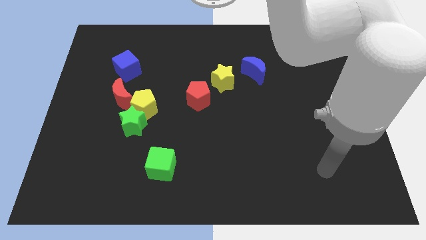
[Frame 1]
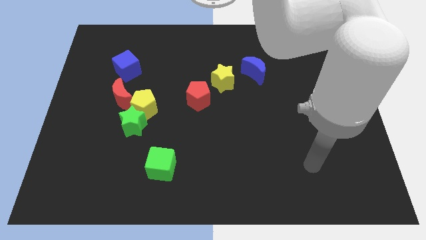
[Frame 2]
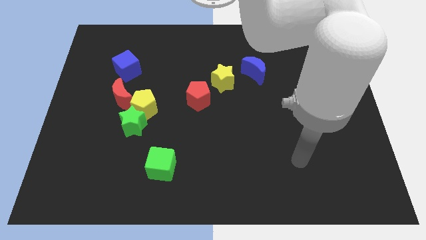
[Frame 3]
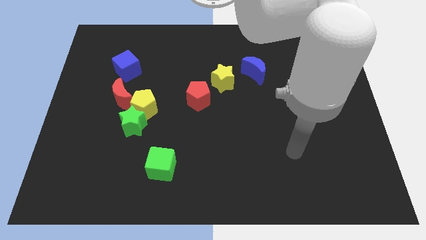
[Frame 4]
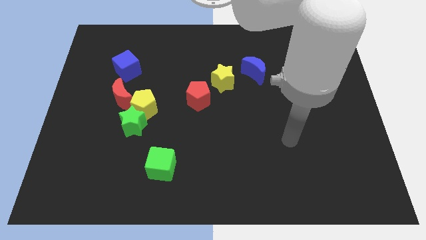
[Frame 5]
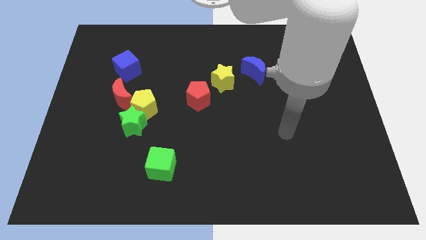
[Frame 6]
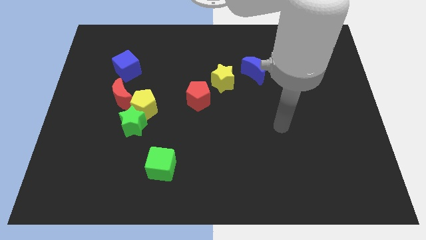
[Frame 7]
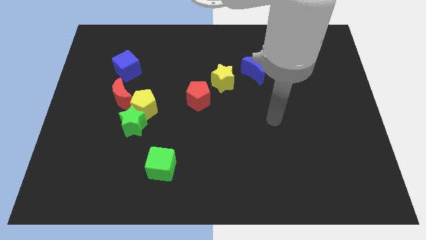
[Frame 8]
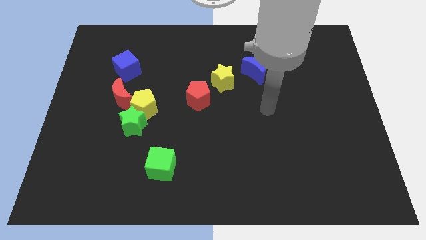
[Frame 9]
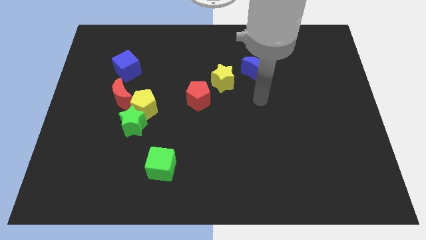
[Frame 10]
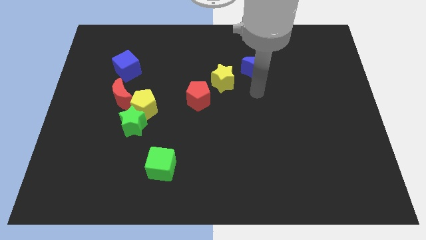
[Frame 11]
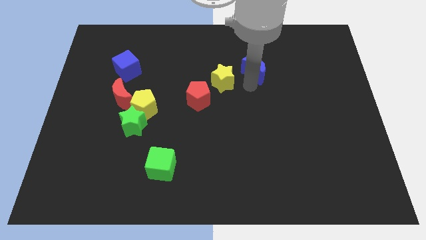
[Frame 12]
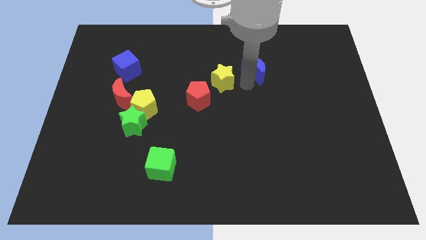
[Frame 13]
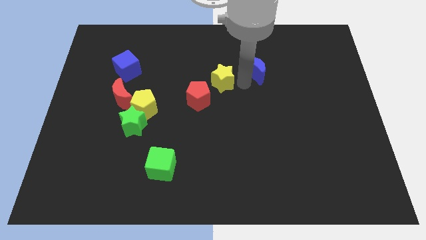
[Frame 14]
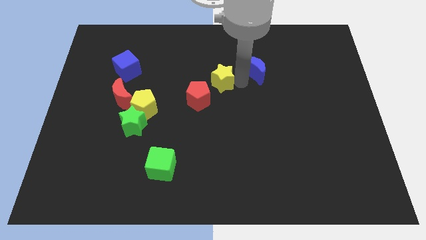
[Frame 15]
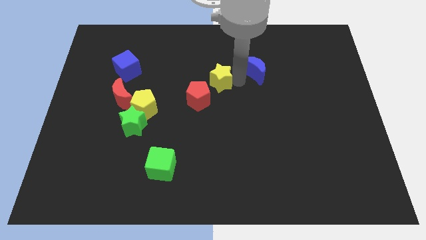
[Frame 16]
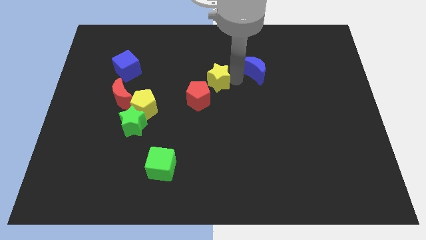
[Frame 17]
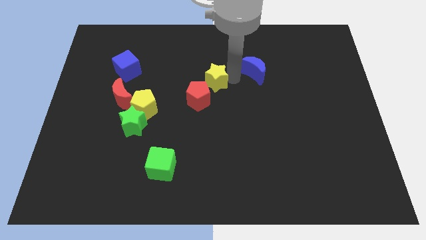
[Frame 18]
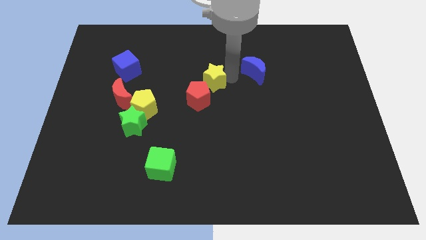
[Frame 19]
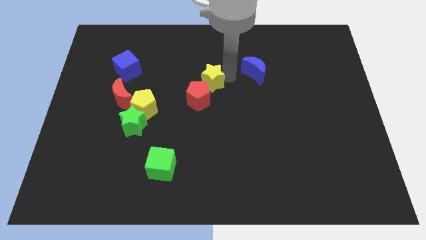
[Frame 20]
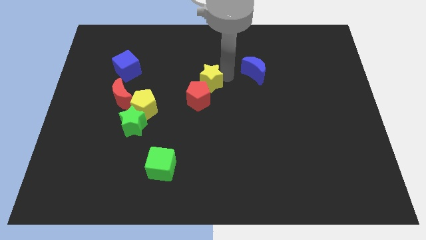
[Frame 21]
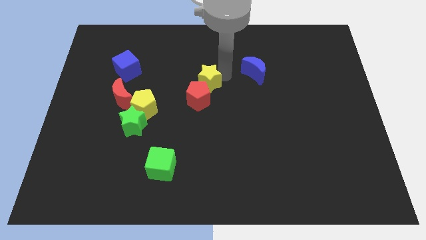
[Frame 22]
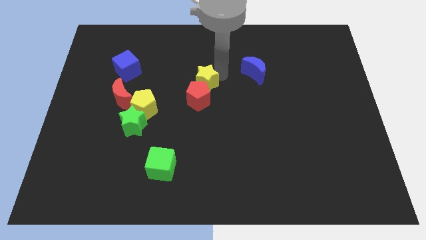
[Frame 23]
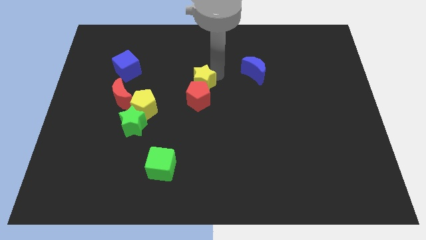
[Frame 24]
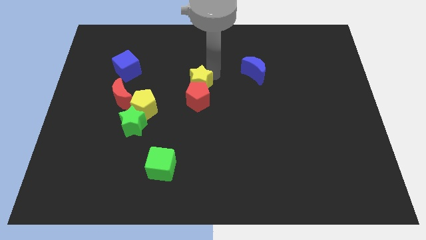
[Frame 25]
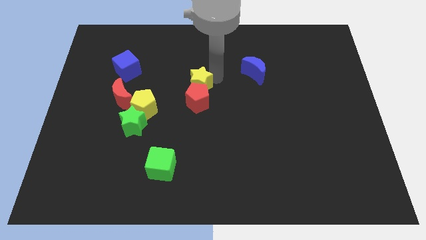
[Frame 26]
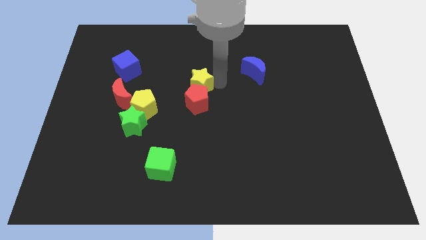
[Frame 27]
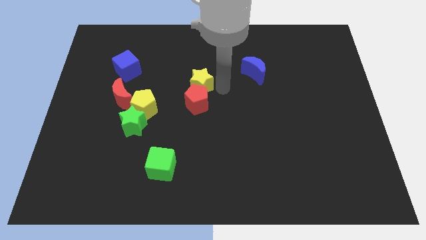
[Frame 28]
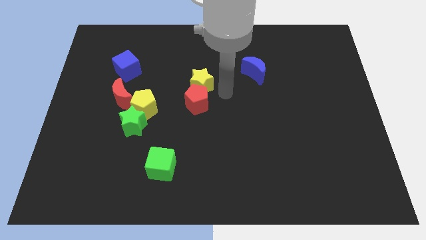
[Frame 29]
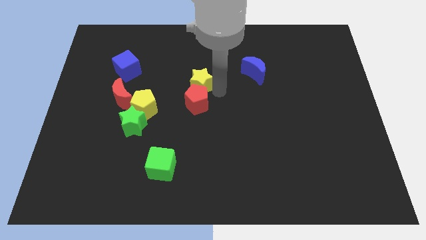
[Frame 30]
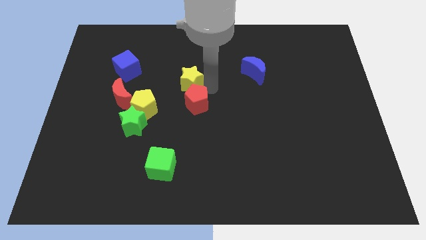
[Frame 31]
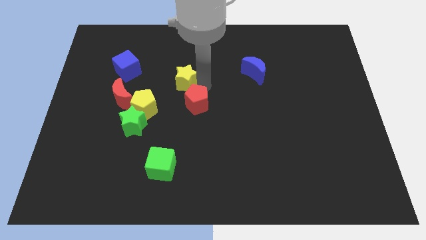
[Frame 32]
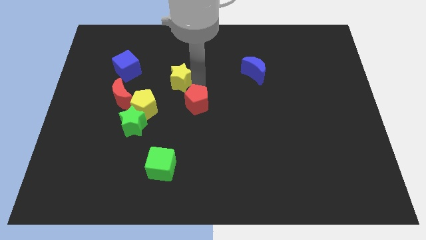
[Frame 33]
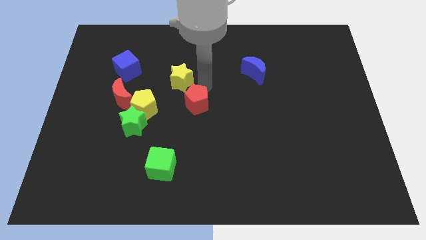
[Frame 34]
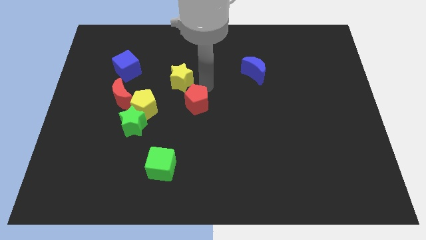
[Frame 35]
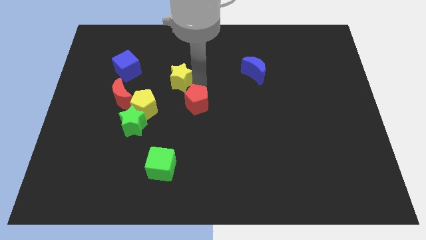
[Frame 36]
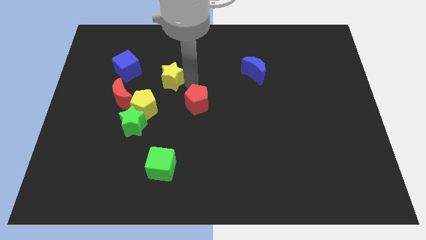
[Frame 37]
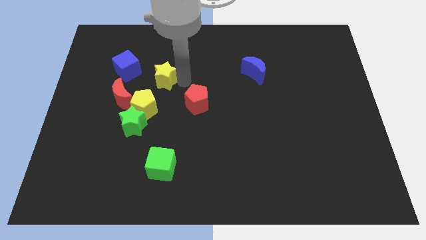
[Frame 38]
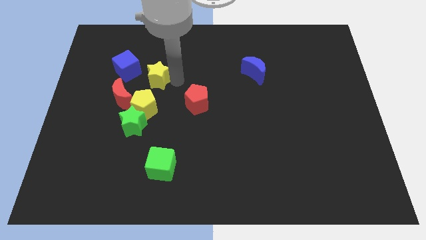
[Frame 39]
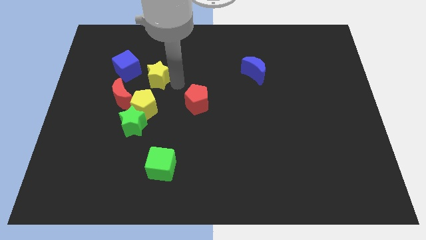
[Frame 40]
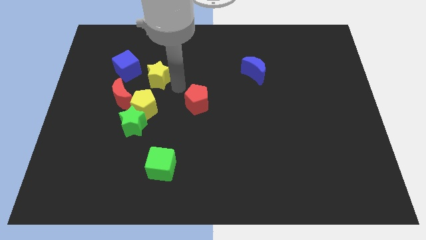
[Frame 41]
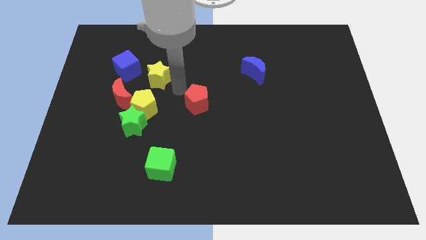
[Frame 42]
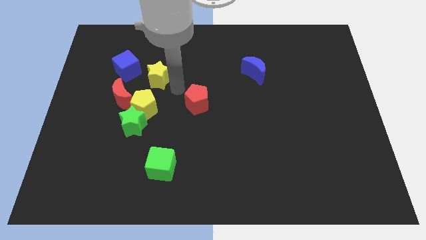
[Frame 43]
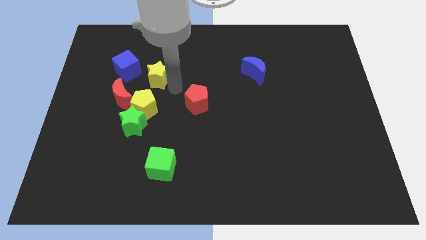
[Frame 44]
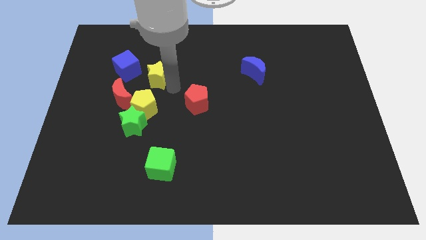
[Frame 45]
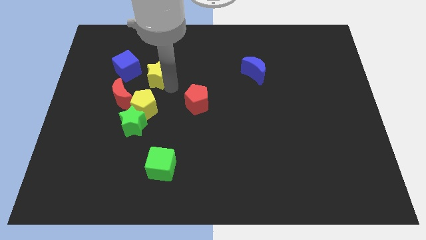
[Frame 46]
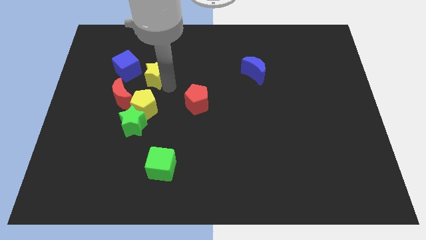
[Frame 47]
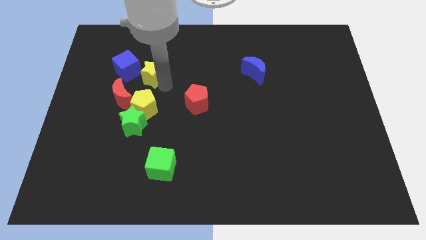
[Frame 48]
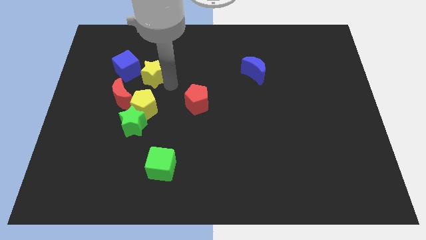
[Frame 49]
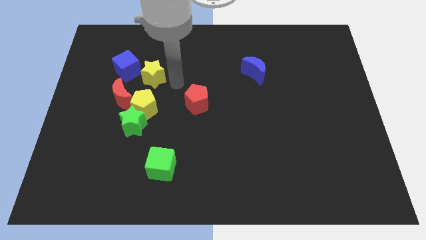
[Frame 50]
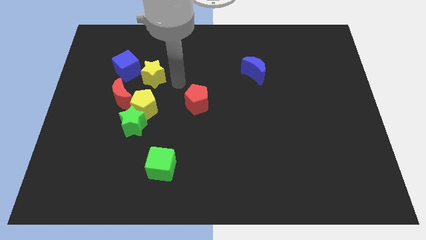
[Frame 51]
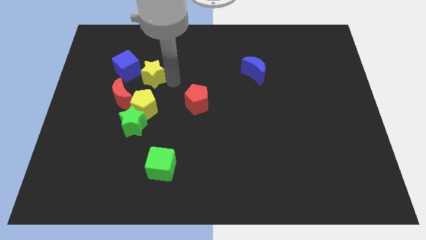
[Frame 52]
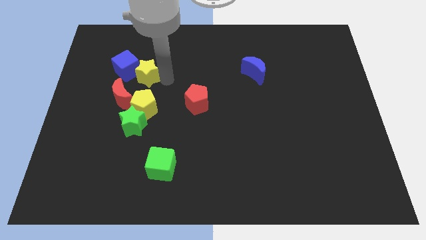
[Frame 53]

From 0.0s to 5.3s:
push the yellow star to the blue cube

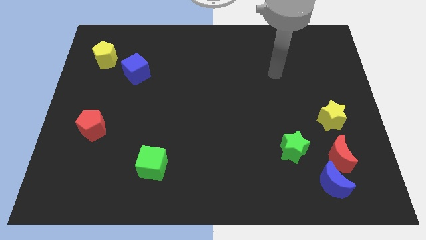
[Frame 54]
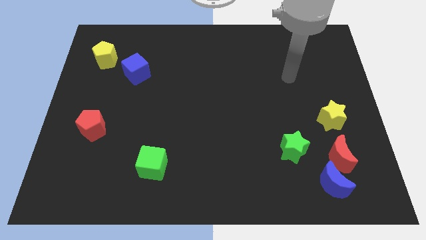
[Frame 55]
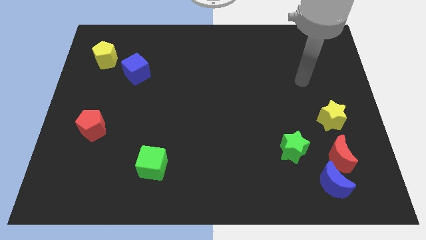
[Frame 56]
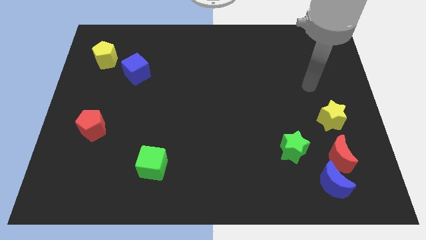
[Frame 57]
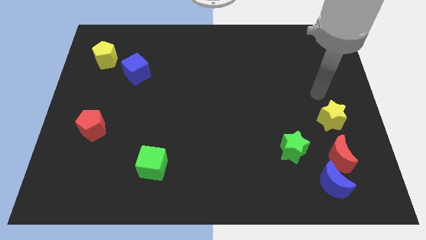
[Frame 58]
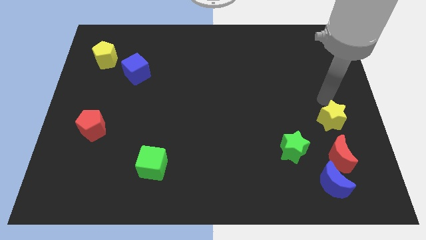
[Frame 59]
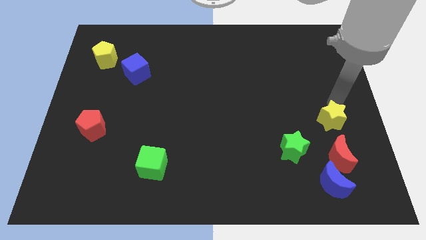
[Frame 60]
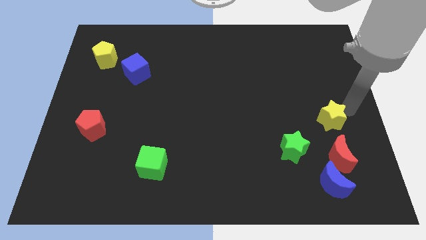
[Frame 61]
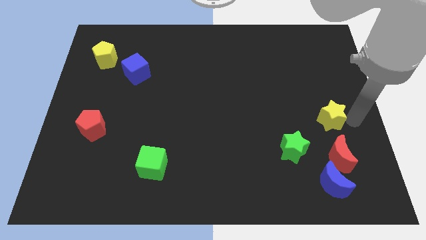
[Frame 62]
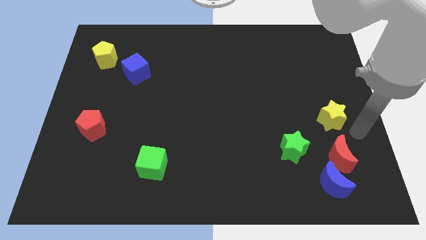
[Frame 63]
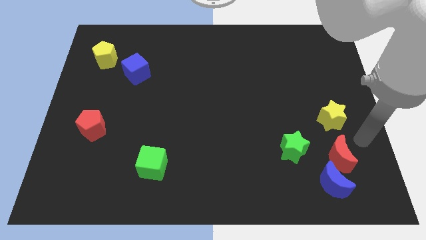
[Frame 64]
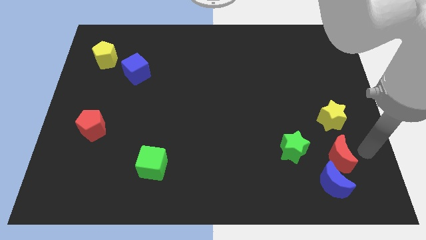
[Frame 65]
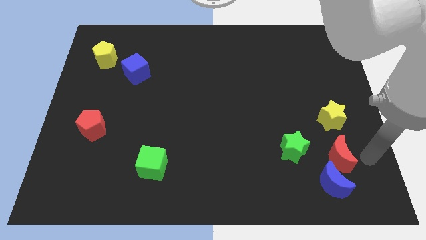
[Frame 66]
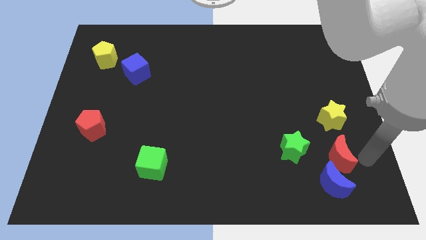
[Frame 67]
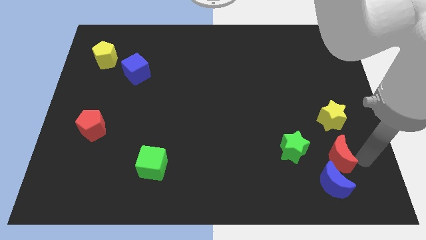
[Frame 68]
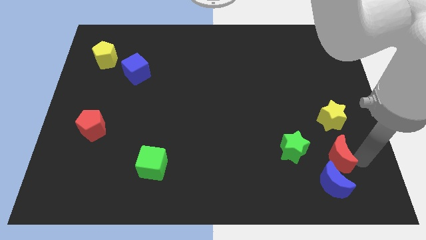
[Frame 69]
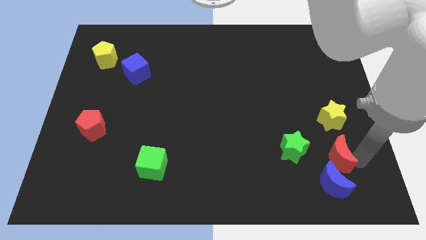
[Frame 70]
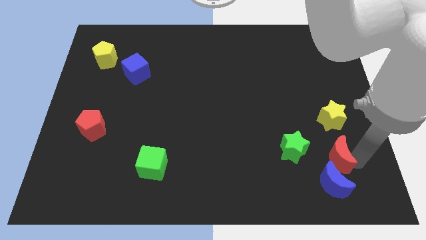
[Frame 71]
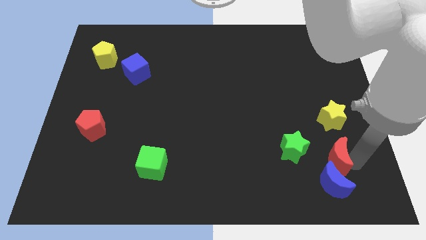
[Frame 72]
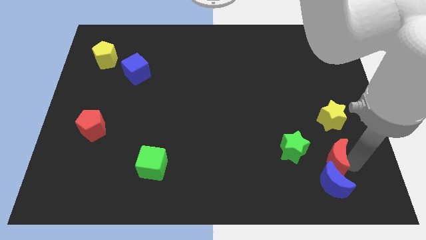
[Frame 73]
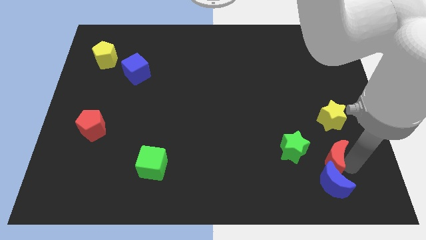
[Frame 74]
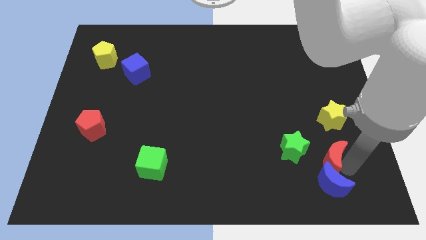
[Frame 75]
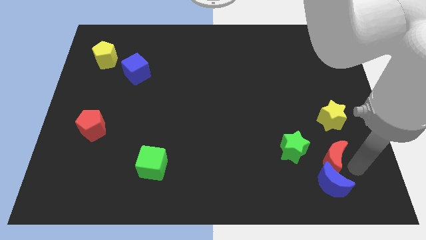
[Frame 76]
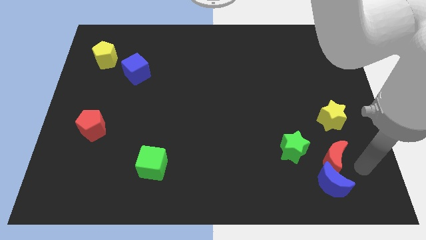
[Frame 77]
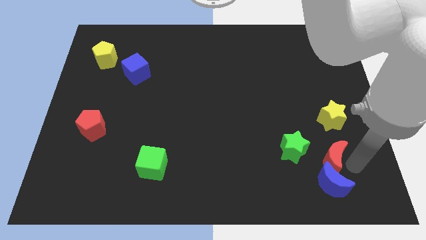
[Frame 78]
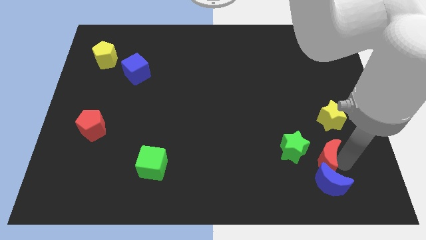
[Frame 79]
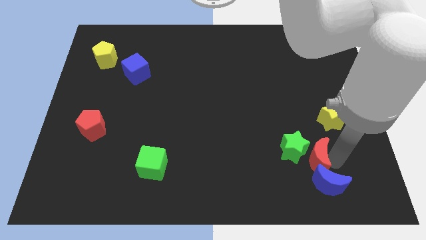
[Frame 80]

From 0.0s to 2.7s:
push the red moon close to the green star

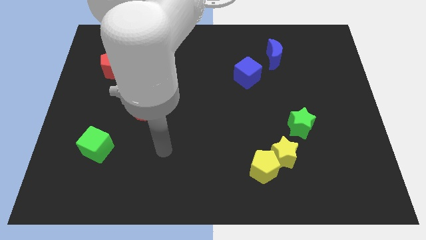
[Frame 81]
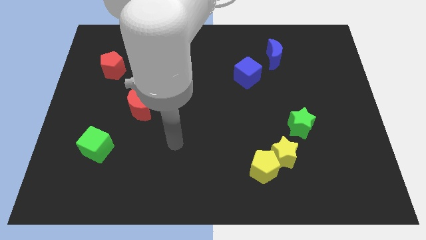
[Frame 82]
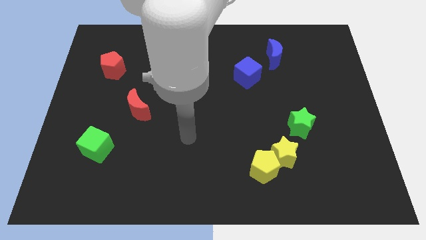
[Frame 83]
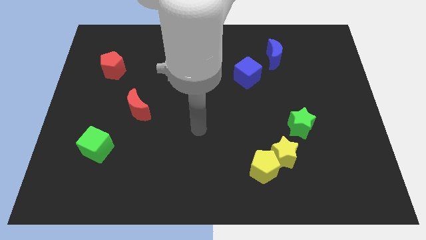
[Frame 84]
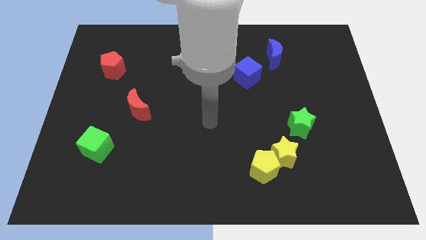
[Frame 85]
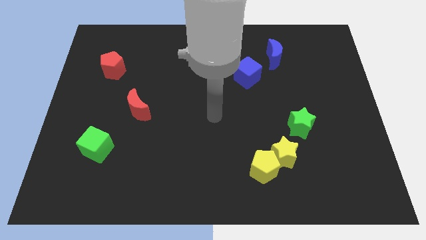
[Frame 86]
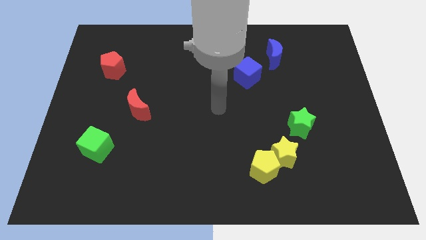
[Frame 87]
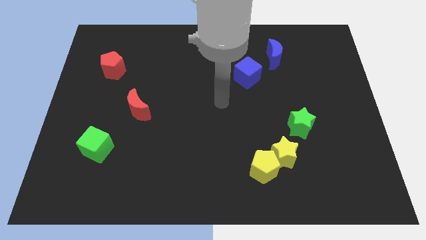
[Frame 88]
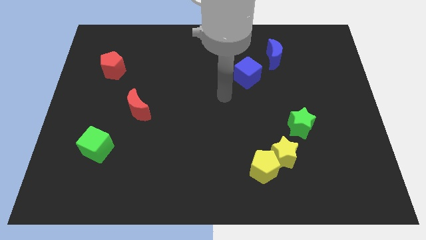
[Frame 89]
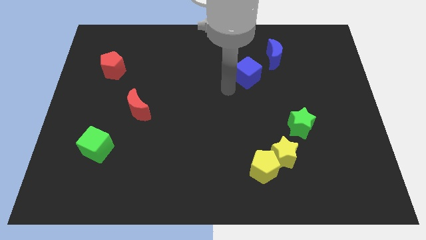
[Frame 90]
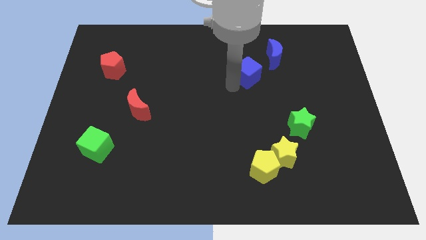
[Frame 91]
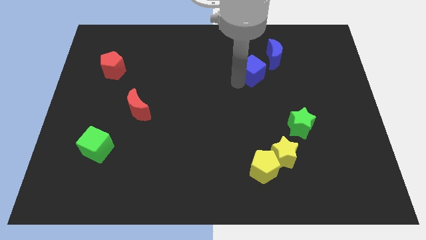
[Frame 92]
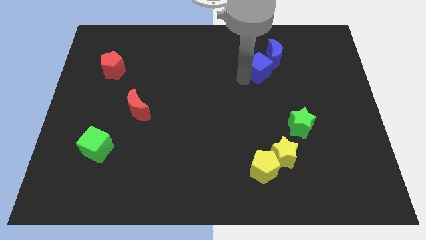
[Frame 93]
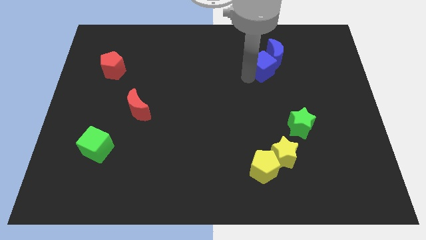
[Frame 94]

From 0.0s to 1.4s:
move the blue cube to the blue moon
